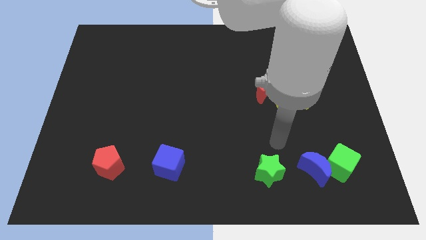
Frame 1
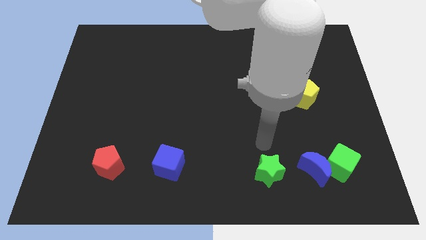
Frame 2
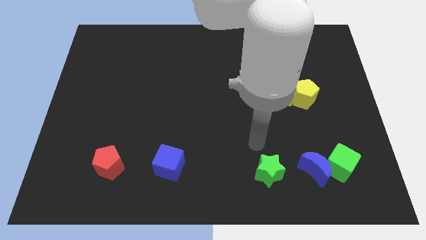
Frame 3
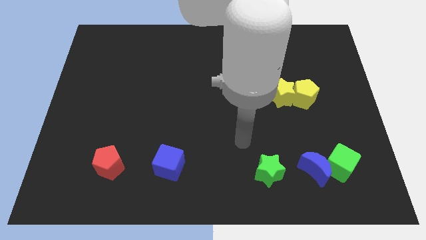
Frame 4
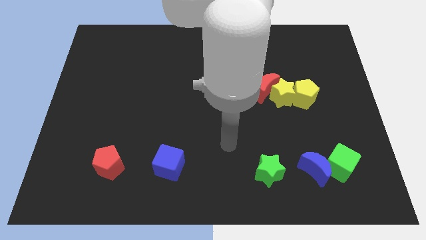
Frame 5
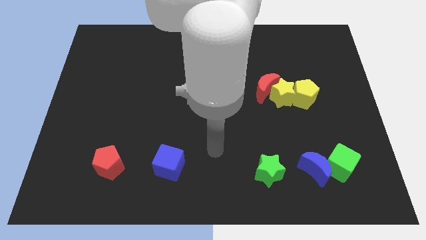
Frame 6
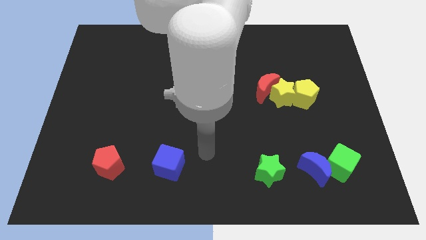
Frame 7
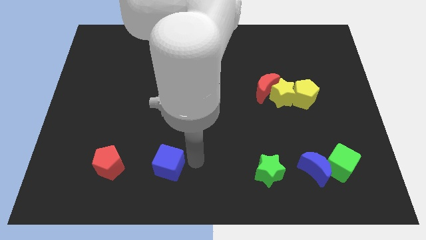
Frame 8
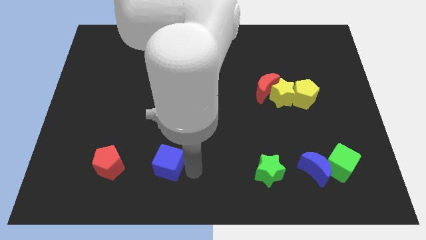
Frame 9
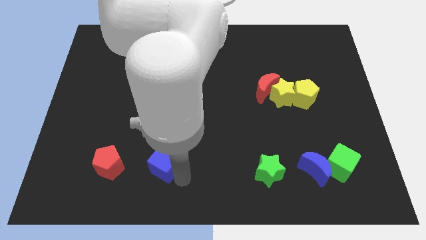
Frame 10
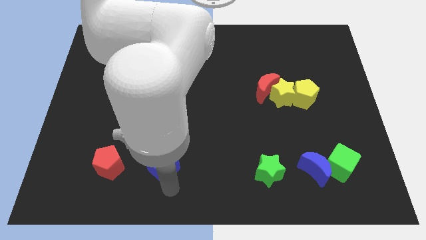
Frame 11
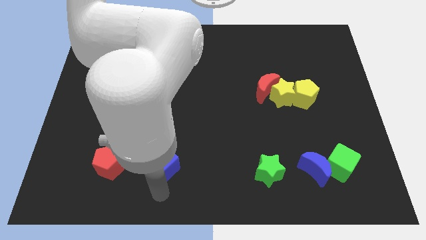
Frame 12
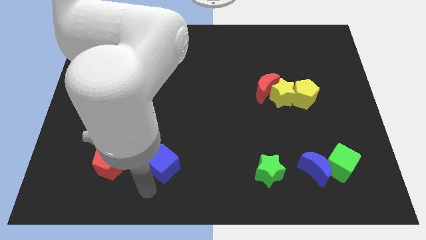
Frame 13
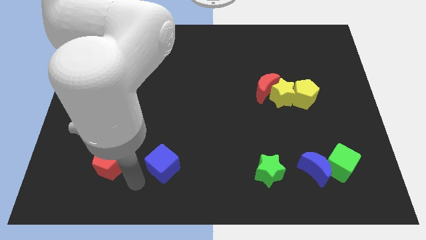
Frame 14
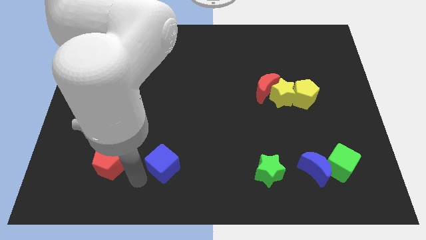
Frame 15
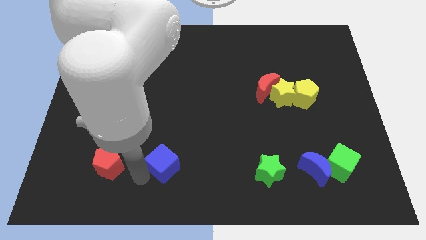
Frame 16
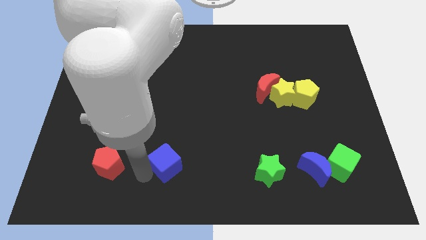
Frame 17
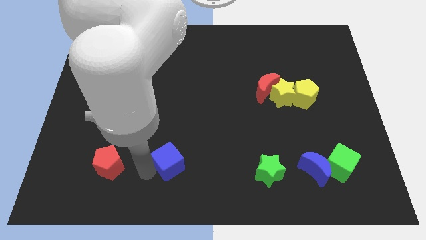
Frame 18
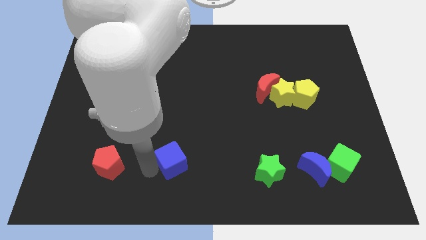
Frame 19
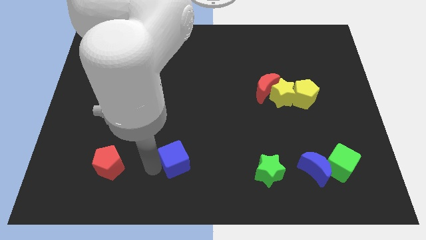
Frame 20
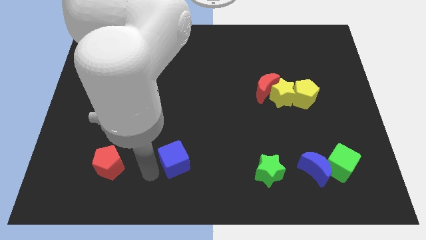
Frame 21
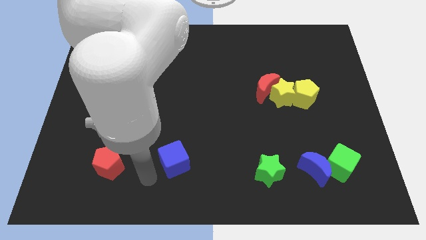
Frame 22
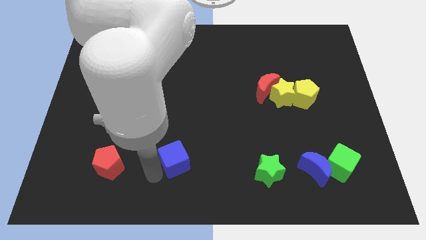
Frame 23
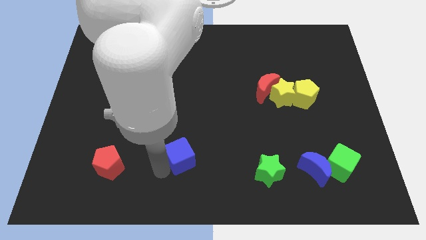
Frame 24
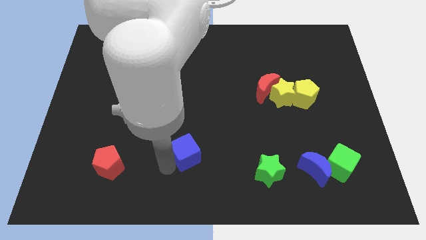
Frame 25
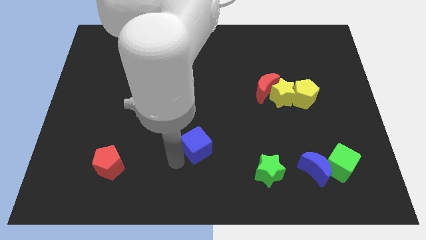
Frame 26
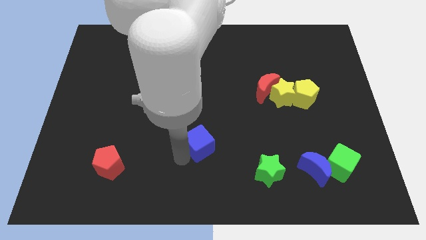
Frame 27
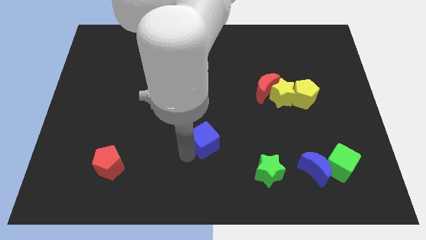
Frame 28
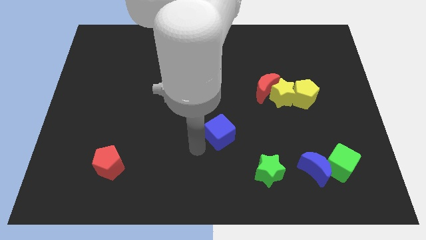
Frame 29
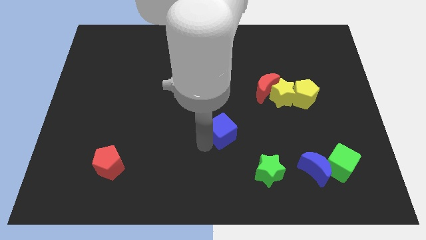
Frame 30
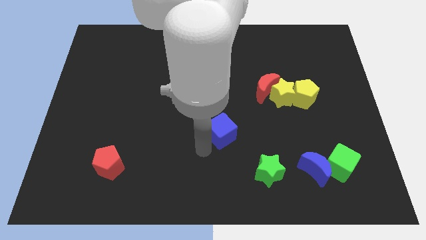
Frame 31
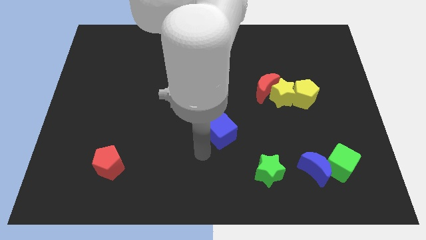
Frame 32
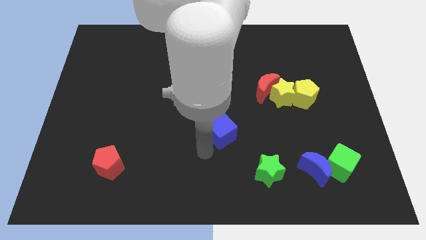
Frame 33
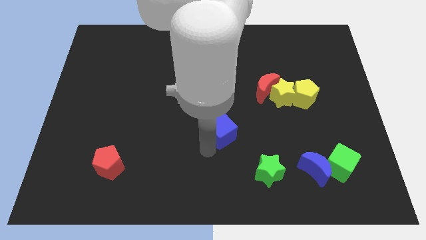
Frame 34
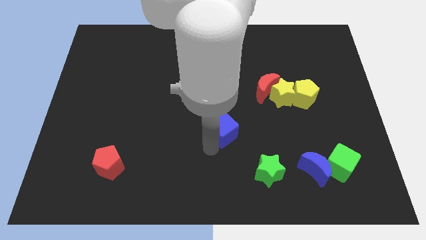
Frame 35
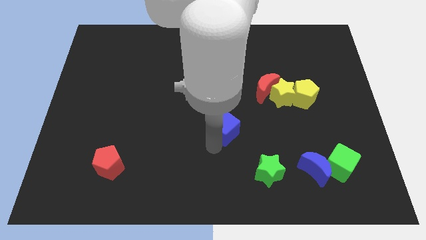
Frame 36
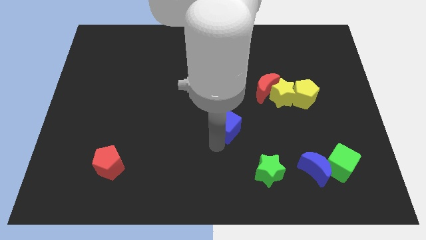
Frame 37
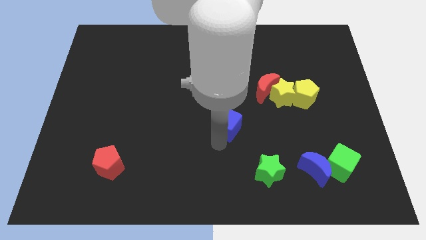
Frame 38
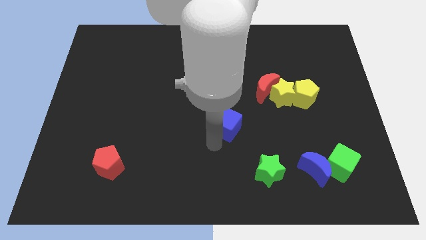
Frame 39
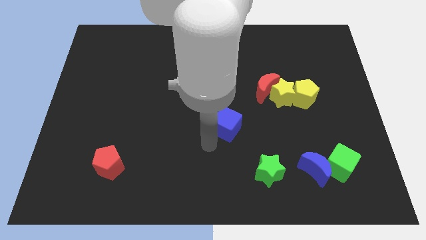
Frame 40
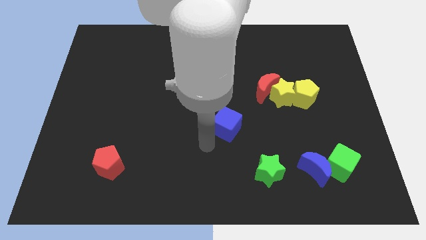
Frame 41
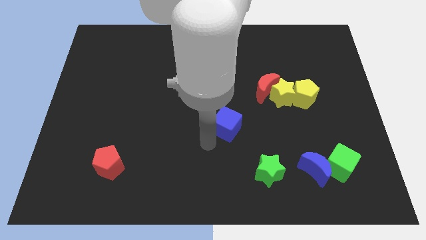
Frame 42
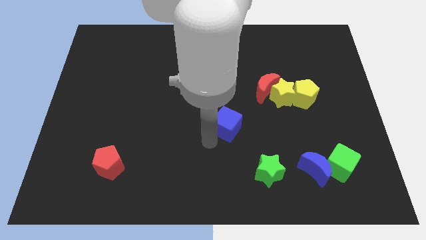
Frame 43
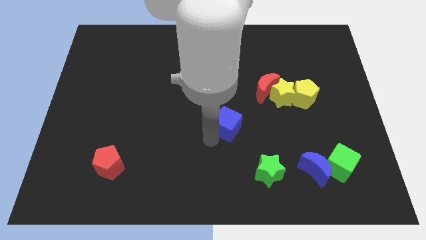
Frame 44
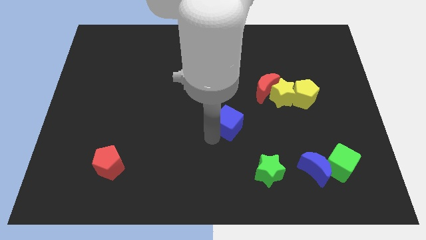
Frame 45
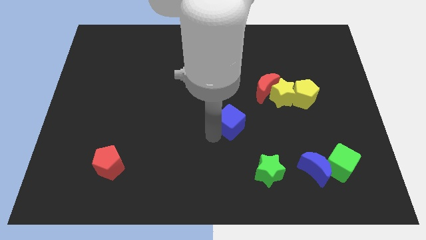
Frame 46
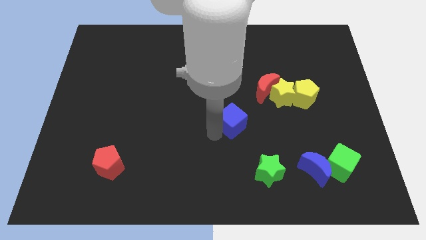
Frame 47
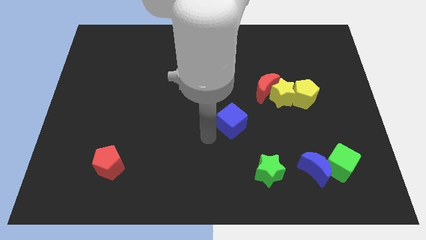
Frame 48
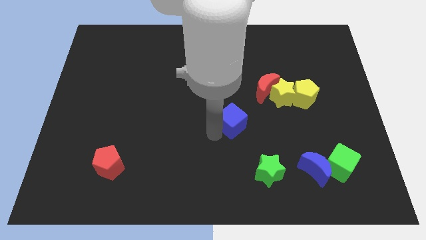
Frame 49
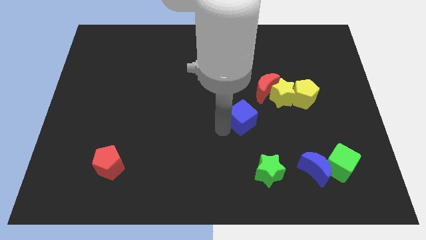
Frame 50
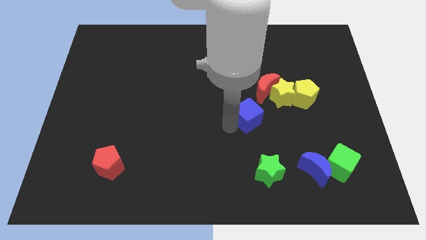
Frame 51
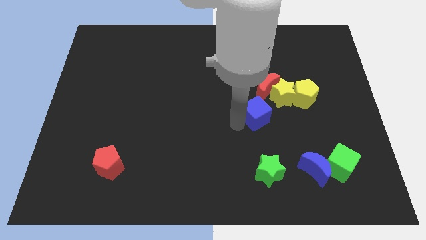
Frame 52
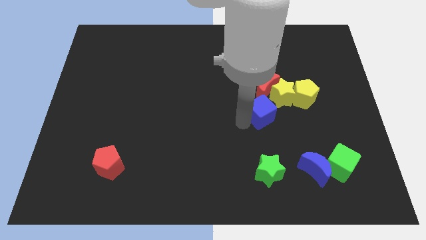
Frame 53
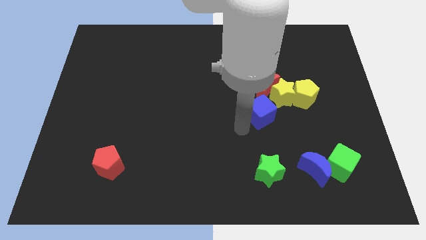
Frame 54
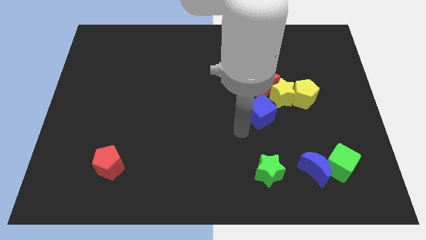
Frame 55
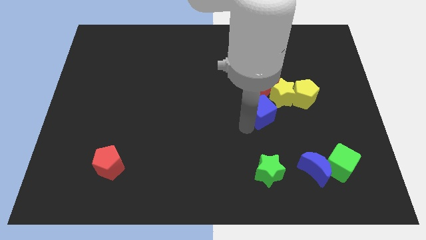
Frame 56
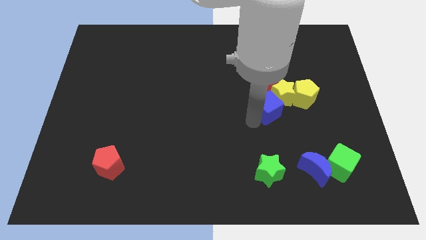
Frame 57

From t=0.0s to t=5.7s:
put the blue cube to the yellow star

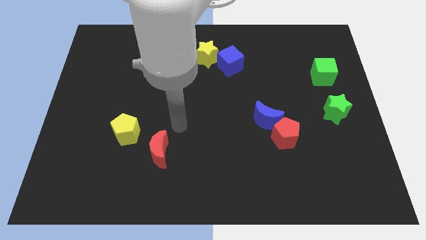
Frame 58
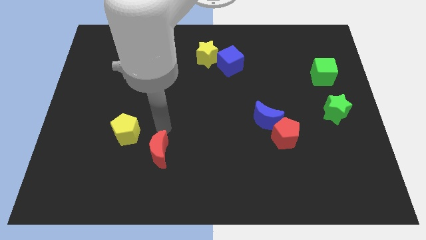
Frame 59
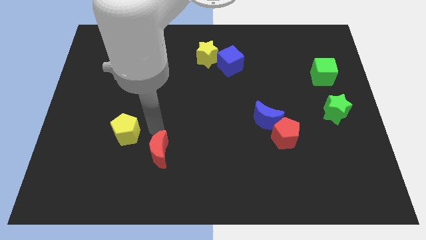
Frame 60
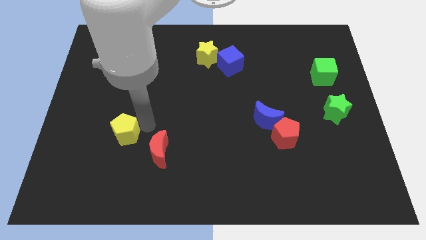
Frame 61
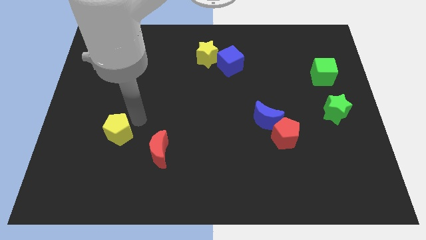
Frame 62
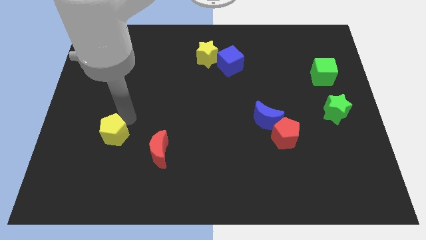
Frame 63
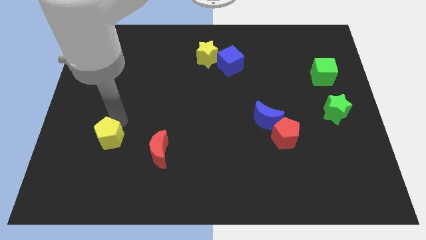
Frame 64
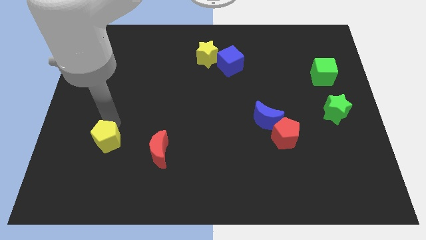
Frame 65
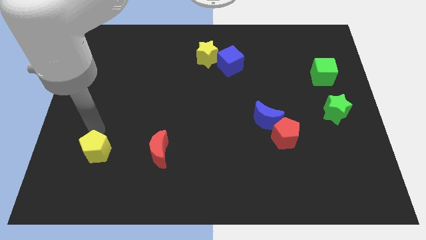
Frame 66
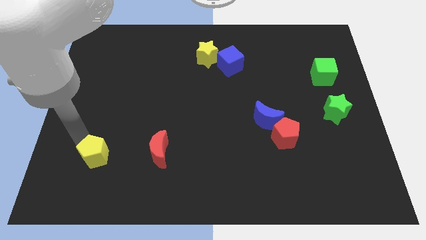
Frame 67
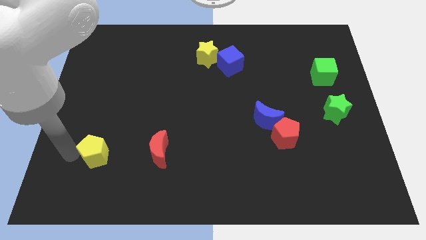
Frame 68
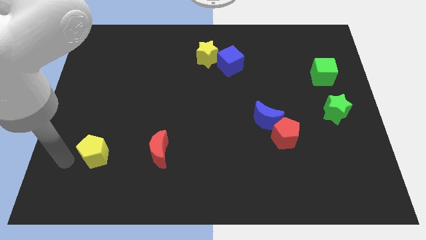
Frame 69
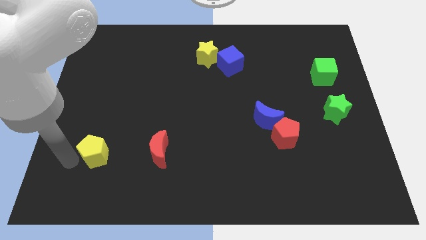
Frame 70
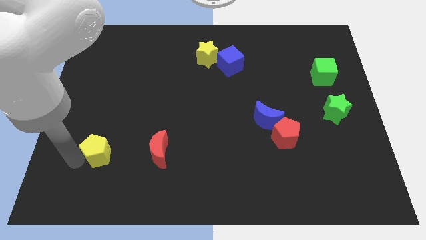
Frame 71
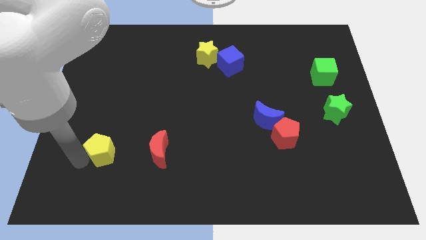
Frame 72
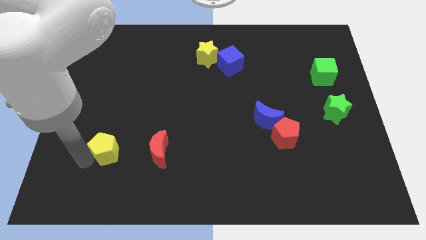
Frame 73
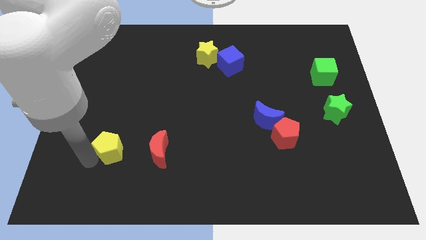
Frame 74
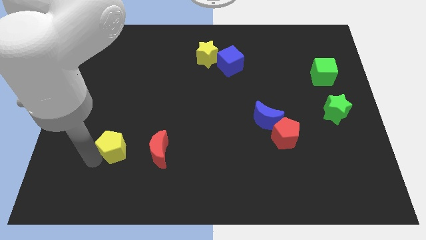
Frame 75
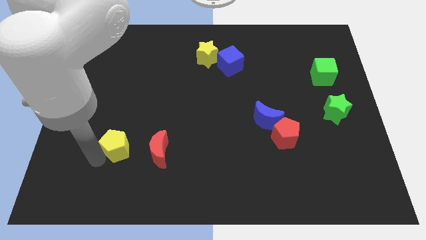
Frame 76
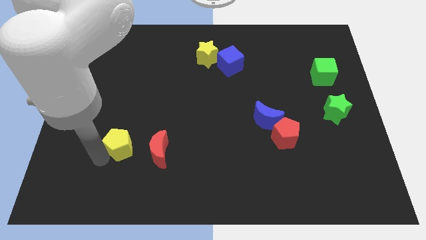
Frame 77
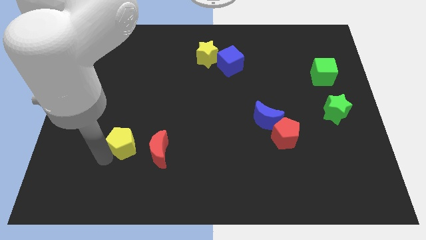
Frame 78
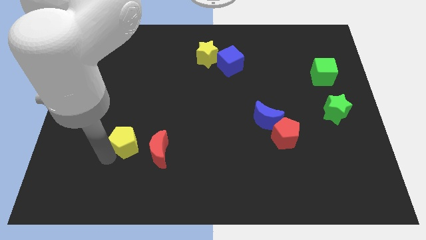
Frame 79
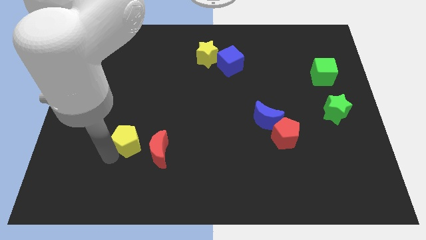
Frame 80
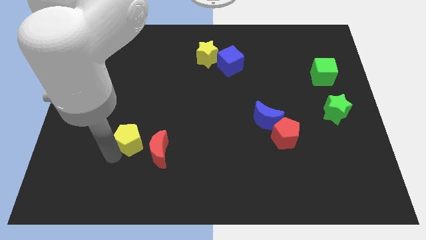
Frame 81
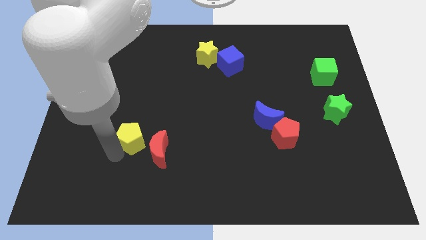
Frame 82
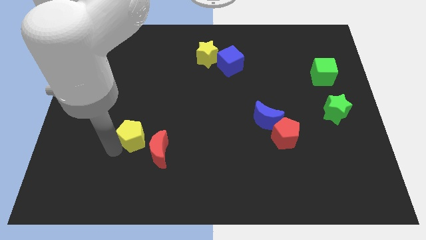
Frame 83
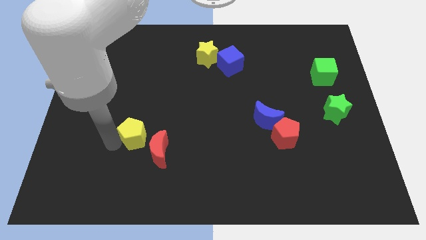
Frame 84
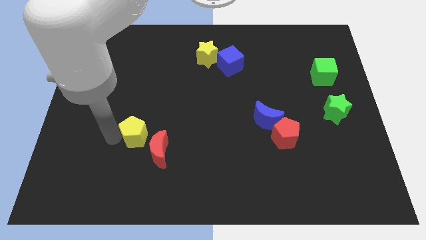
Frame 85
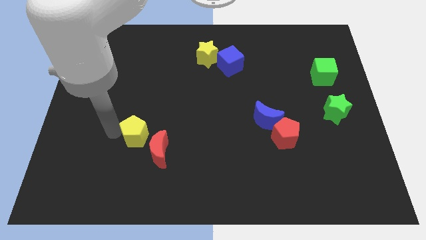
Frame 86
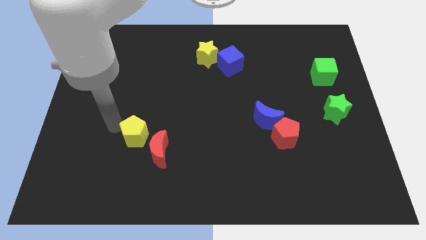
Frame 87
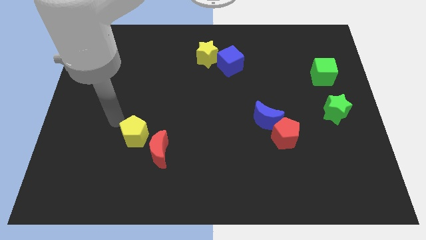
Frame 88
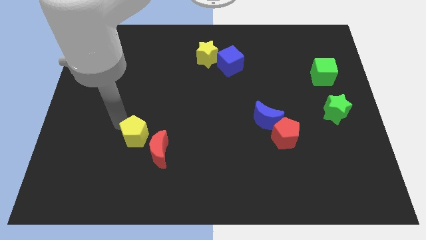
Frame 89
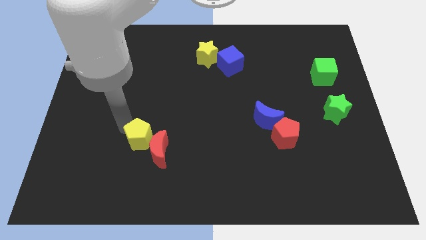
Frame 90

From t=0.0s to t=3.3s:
push the yellow pentagon next to the red moon
